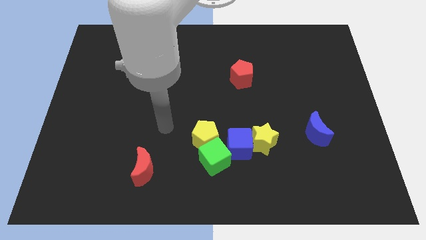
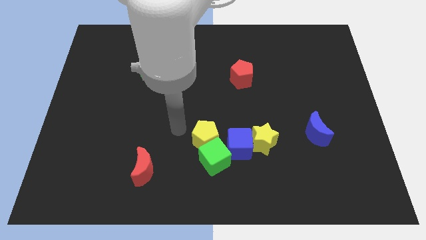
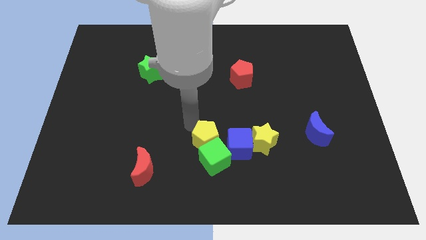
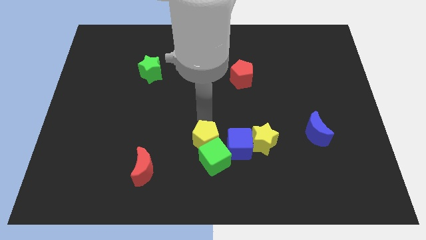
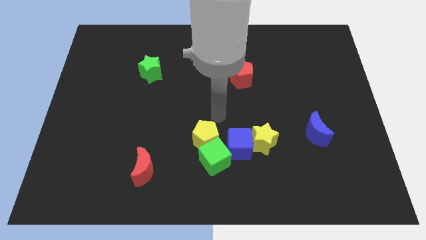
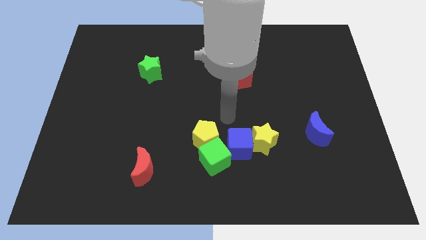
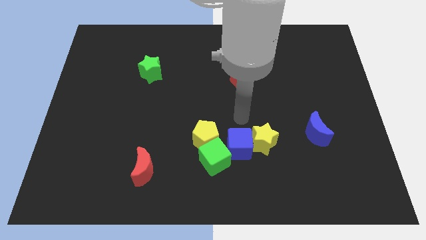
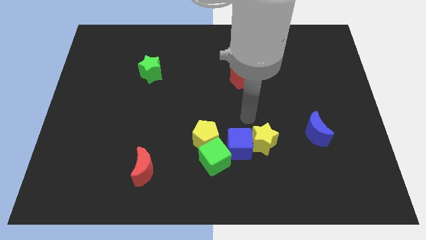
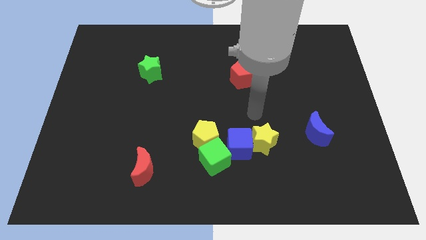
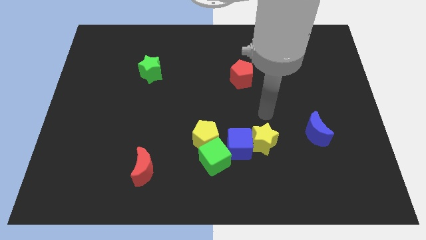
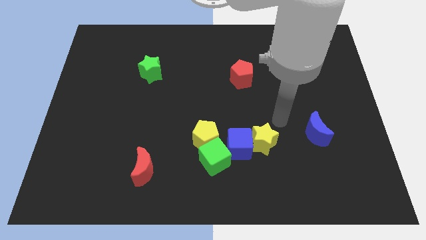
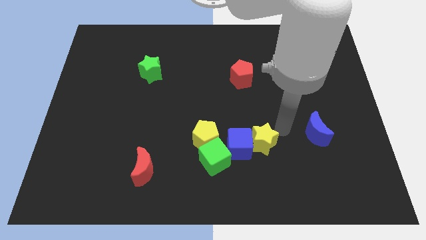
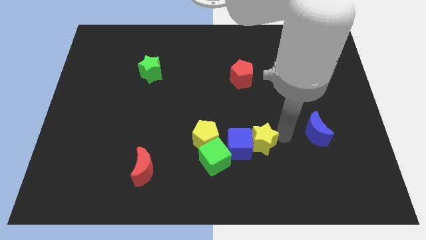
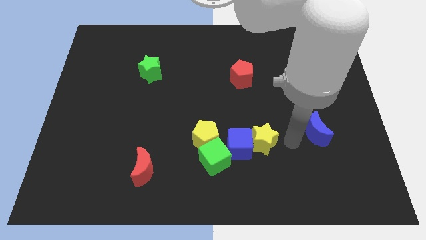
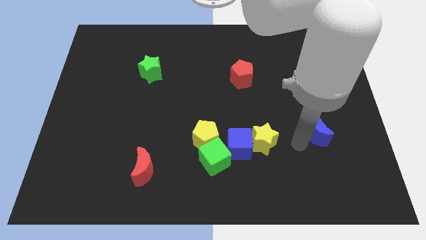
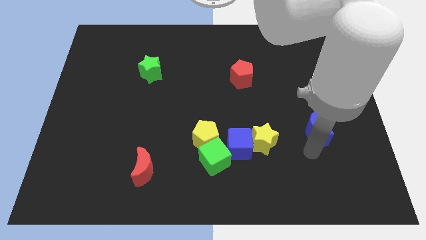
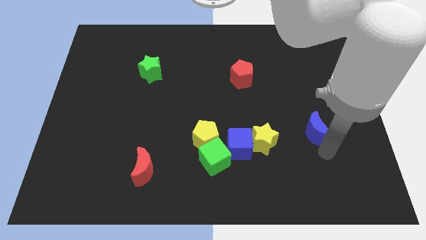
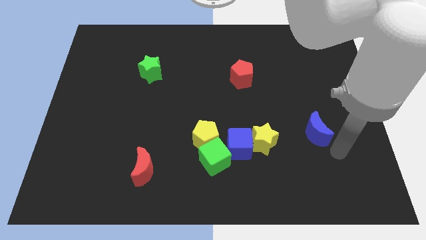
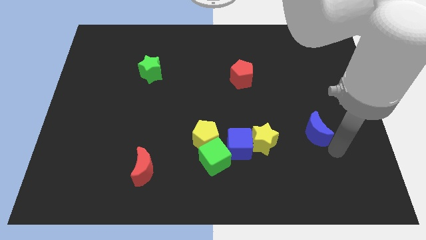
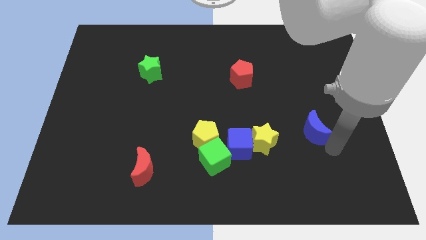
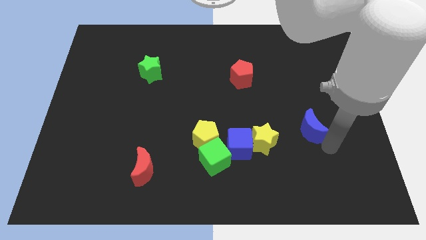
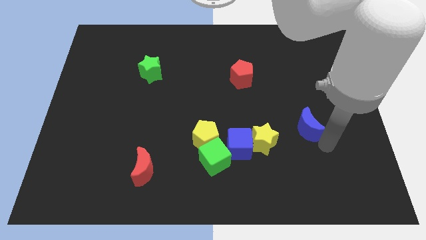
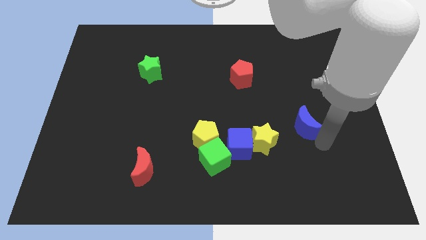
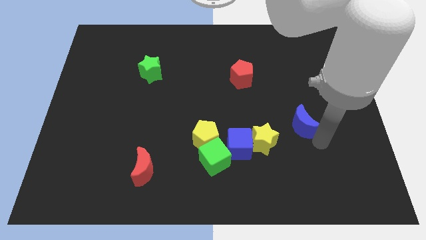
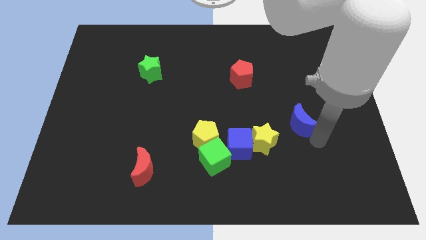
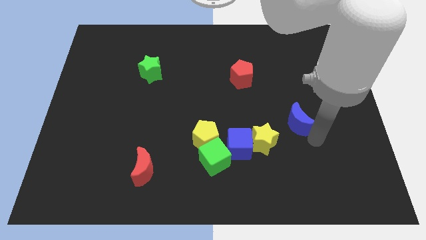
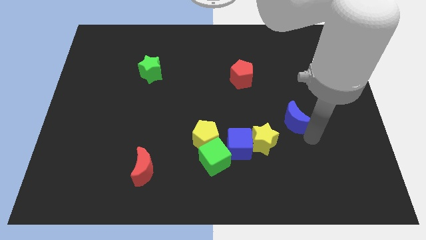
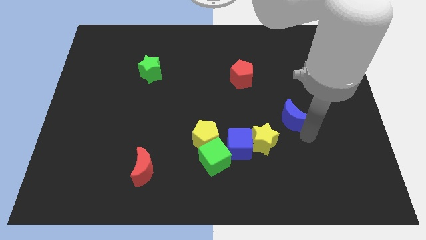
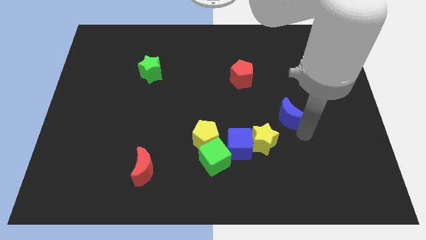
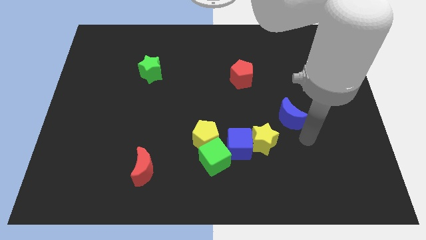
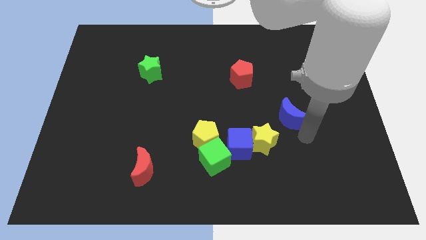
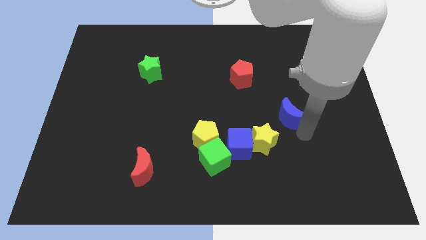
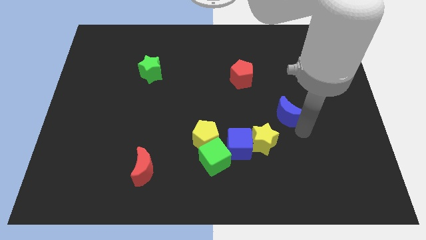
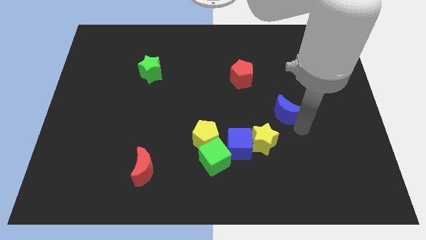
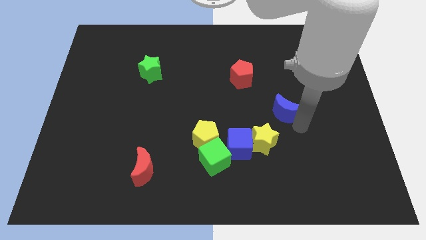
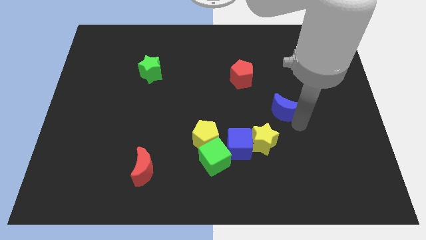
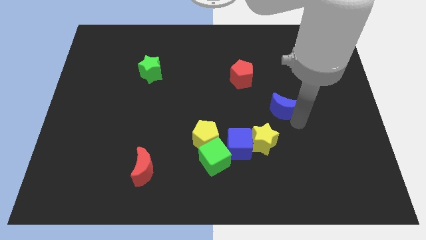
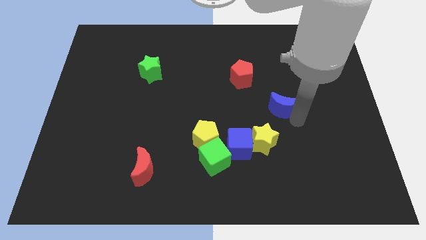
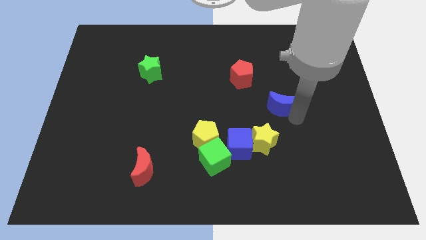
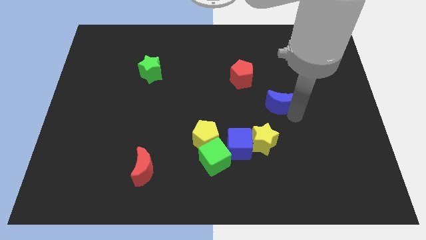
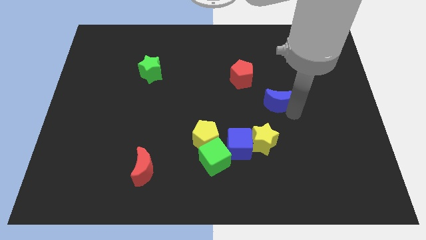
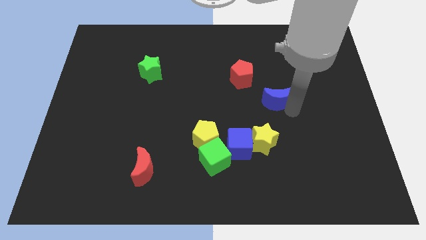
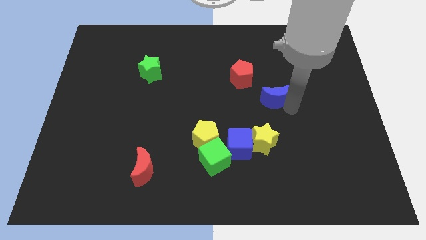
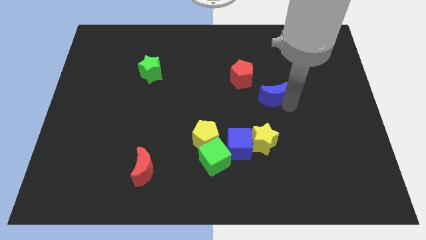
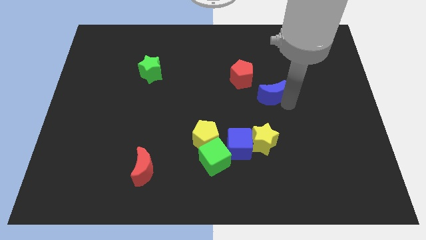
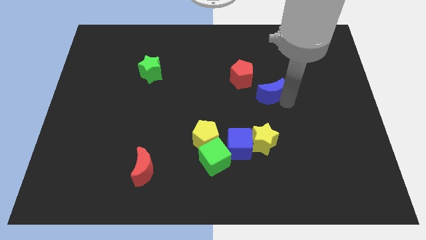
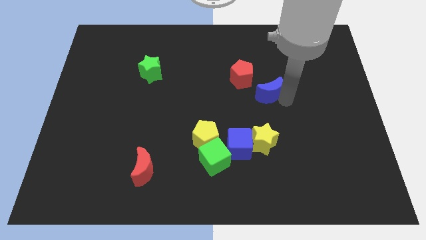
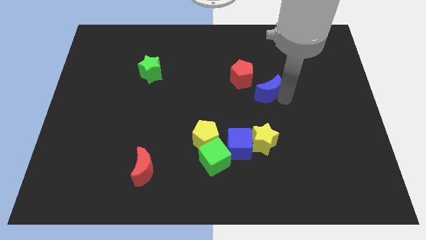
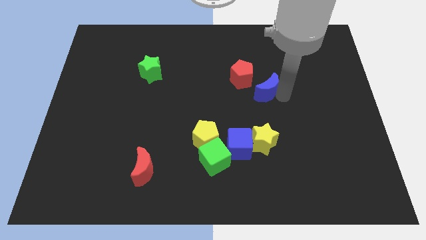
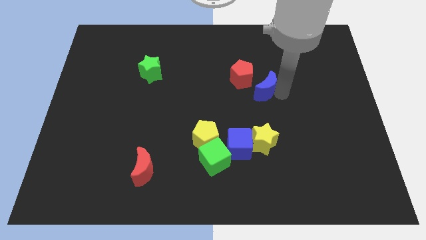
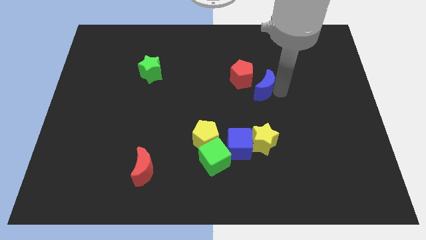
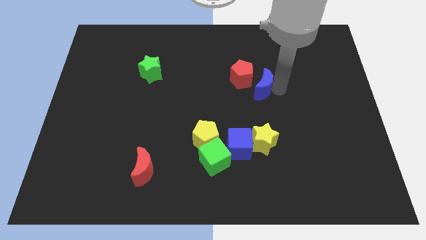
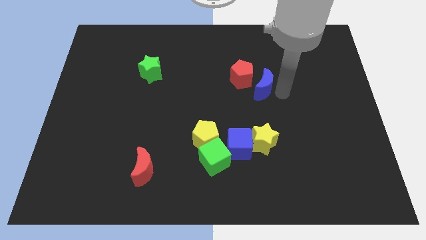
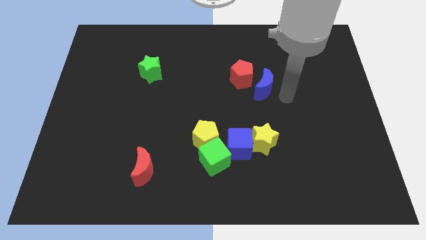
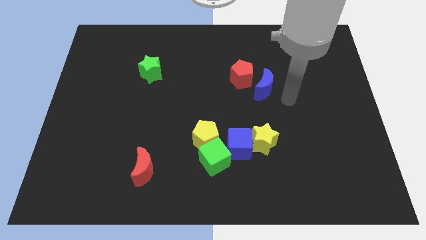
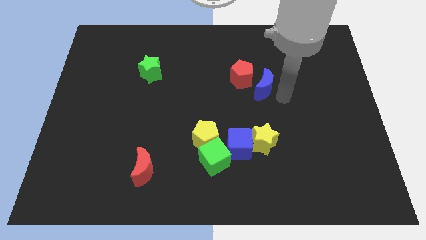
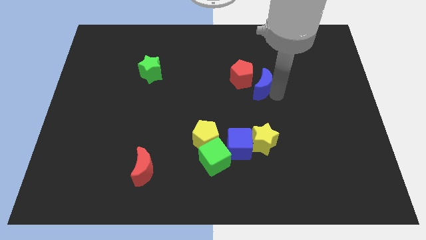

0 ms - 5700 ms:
put the blue moon towards the red pentagon

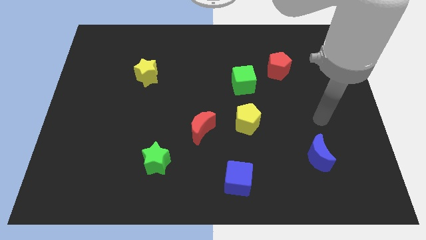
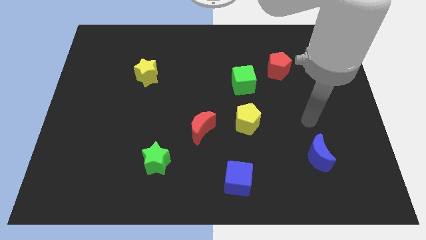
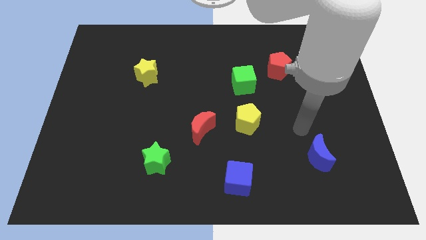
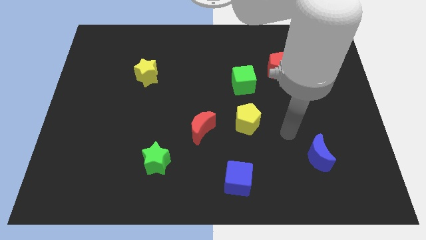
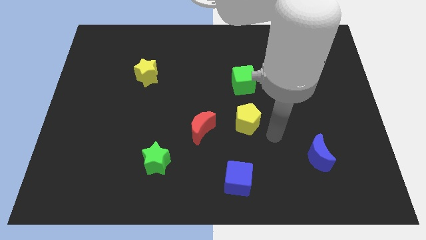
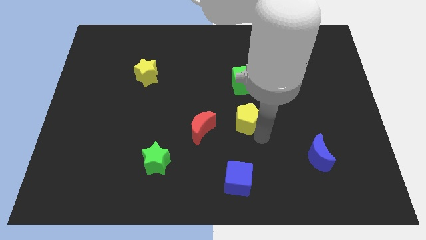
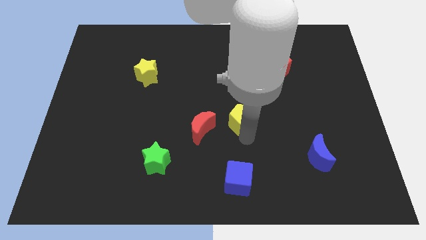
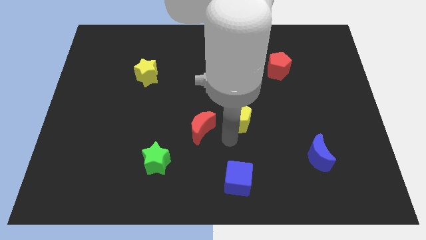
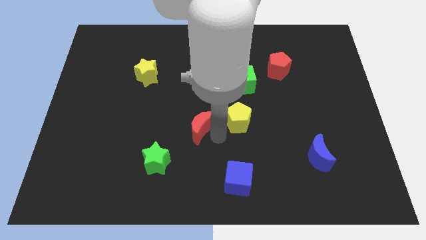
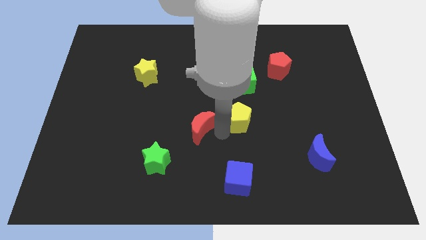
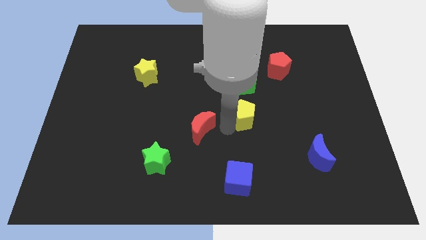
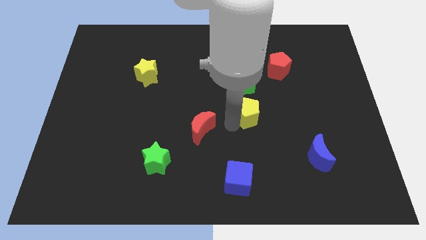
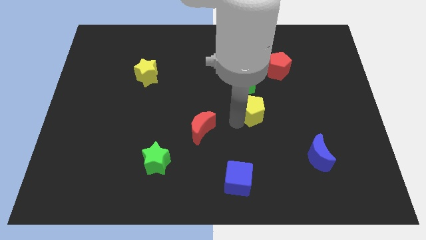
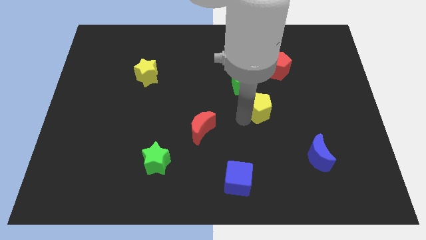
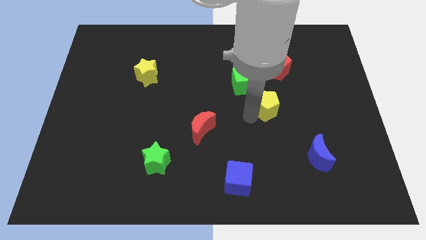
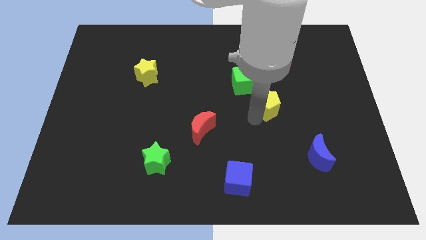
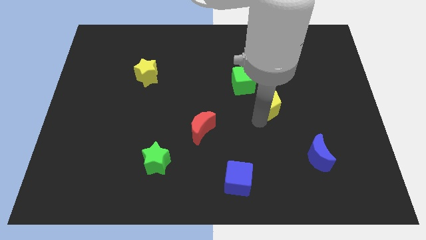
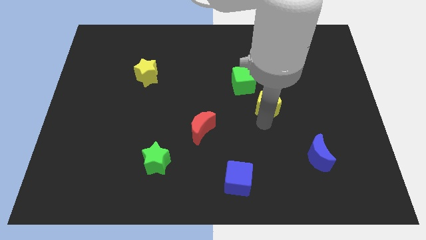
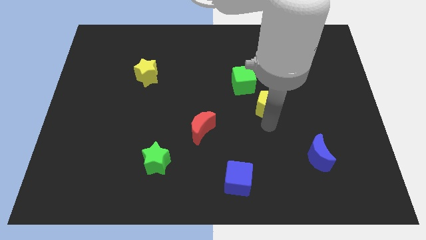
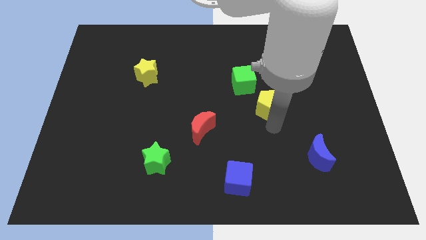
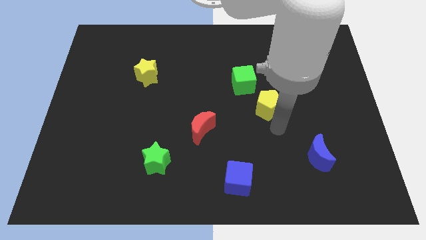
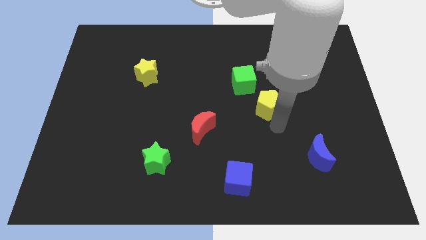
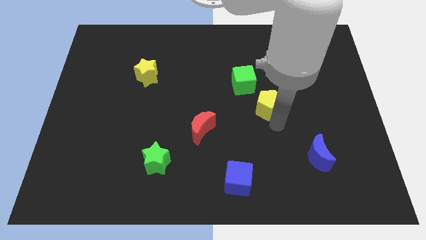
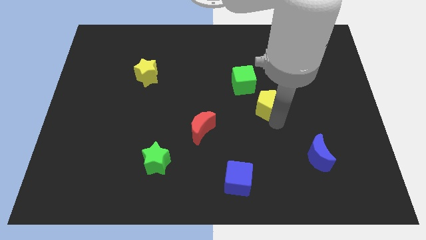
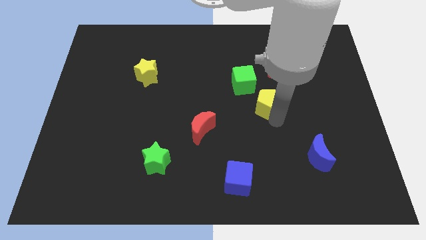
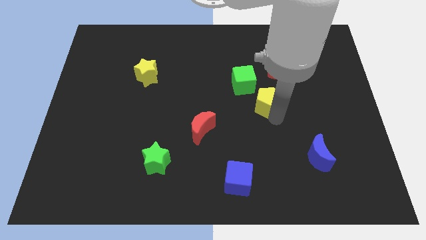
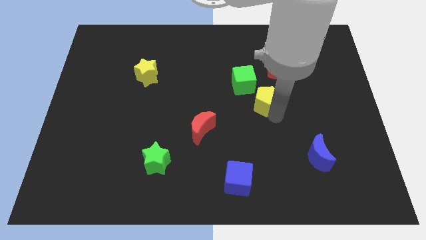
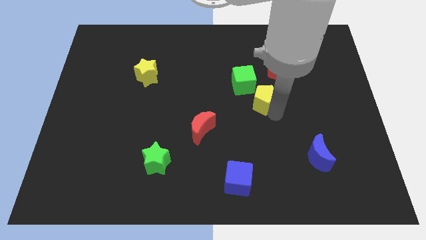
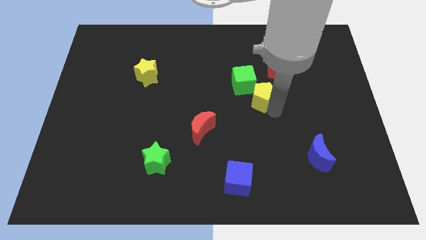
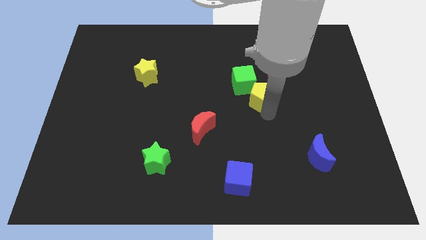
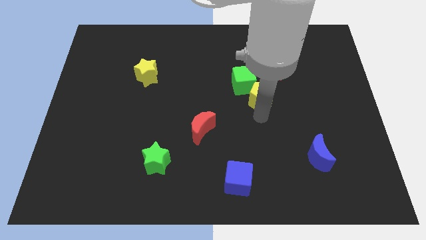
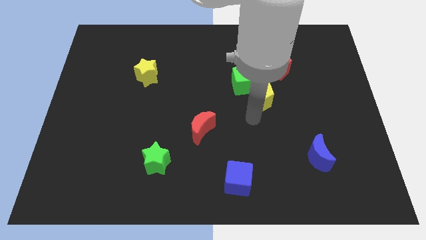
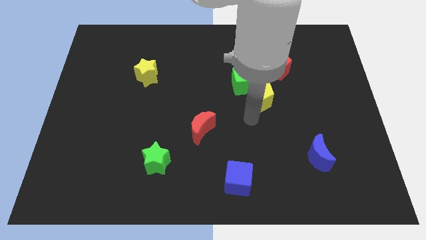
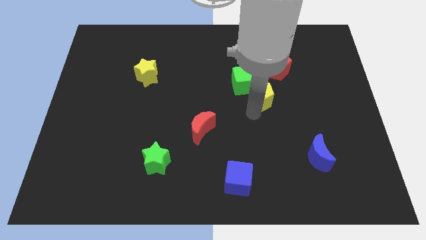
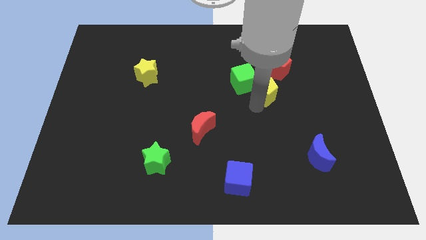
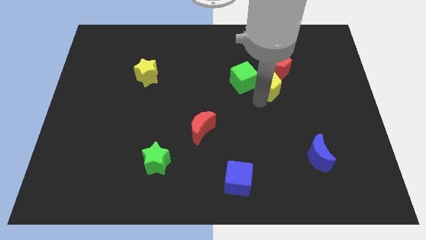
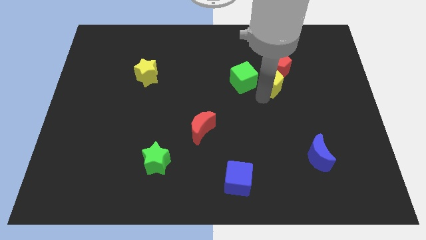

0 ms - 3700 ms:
move the yellow pentagon towards the red pentagon
